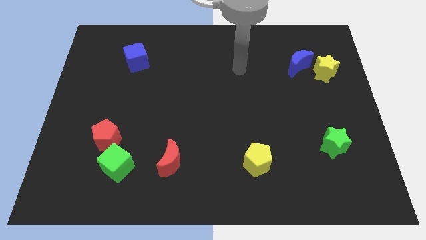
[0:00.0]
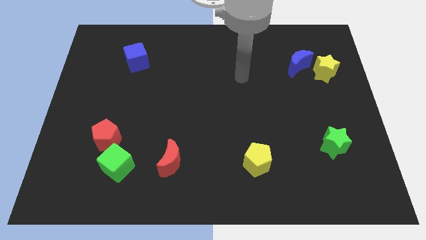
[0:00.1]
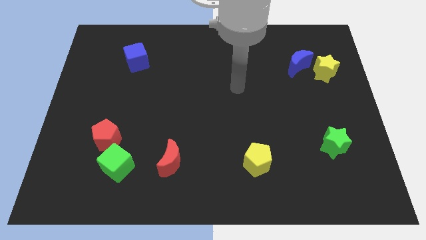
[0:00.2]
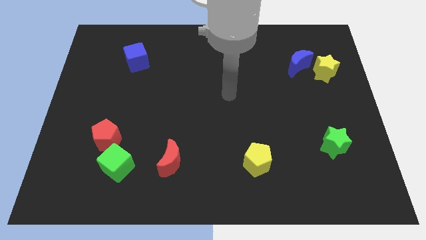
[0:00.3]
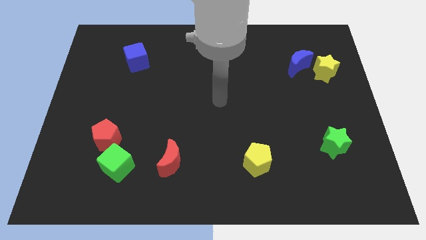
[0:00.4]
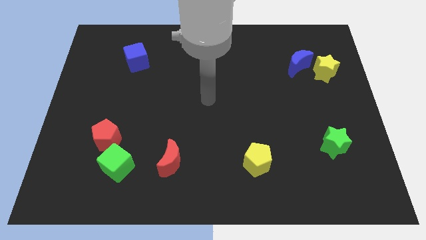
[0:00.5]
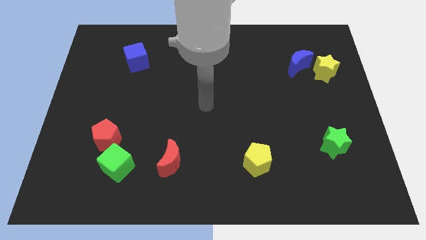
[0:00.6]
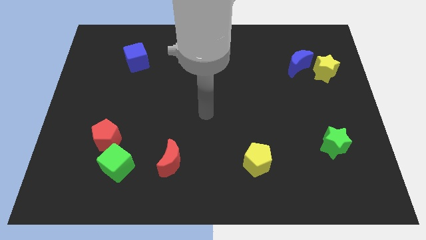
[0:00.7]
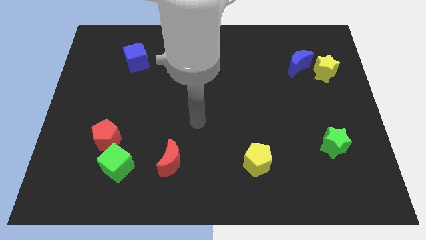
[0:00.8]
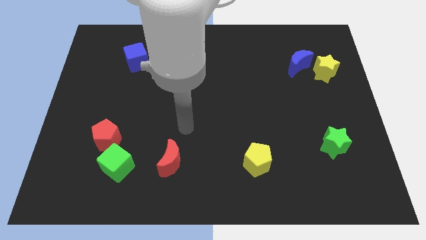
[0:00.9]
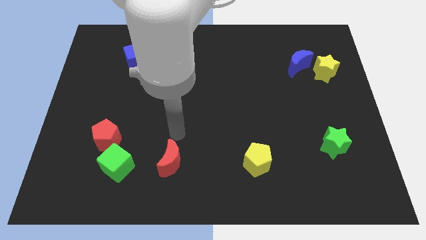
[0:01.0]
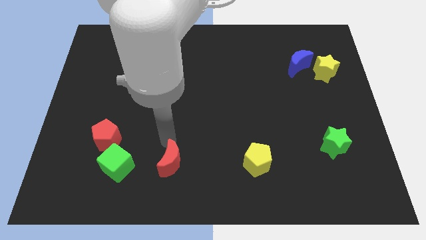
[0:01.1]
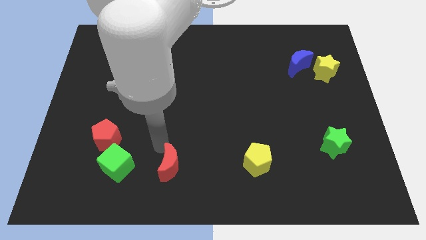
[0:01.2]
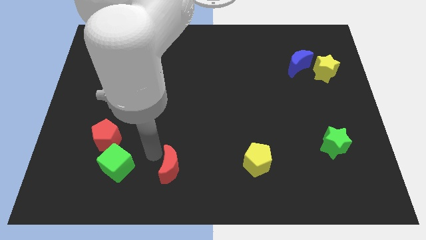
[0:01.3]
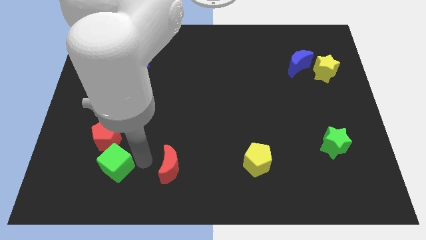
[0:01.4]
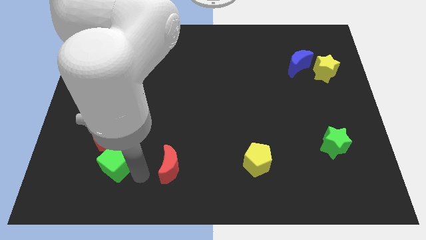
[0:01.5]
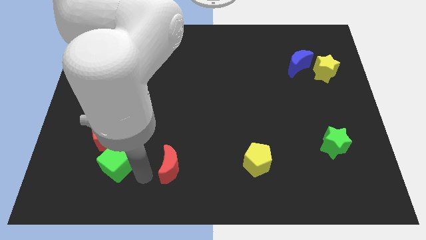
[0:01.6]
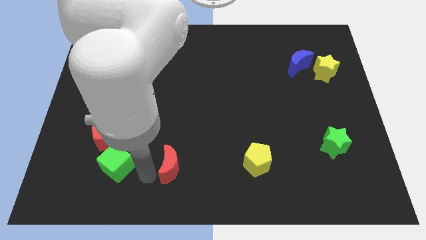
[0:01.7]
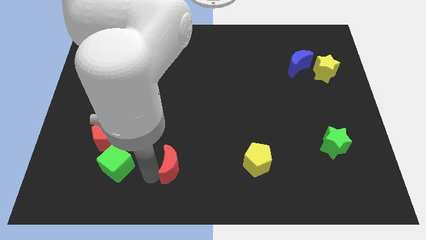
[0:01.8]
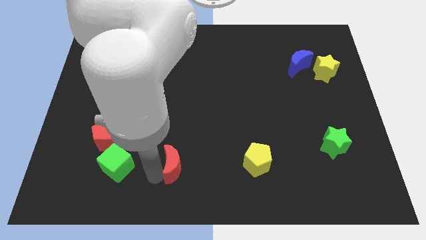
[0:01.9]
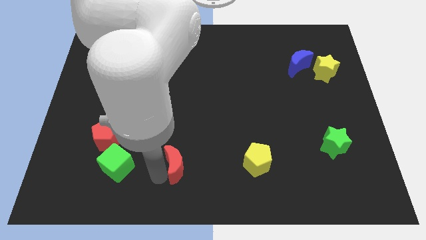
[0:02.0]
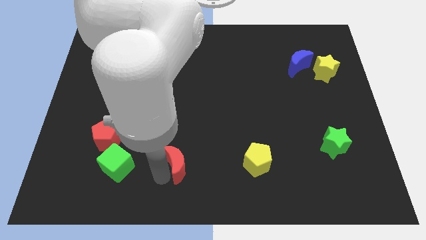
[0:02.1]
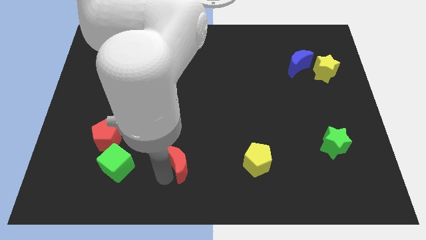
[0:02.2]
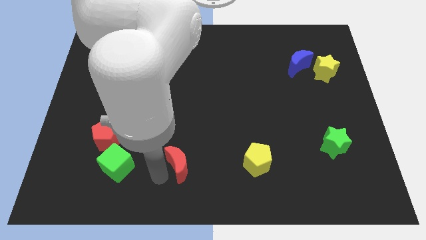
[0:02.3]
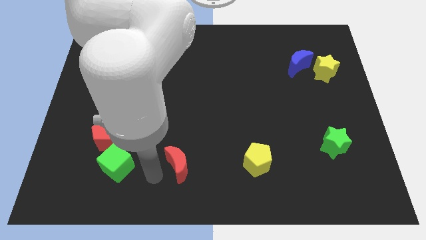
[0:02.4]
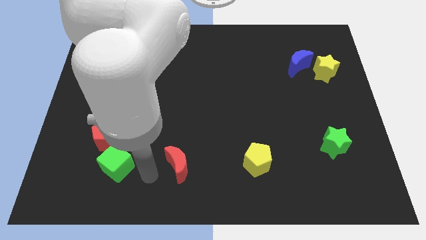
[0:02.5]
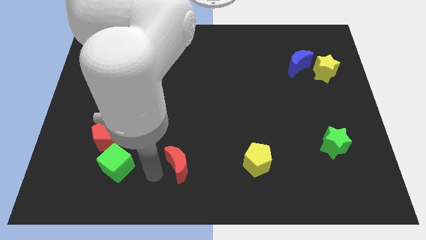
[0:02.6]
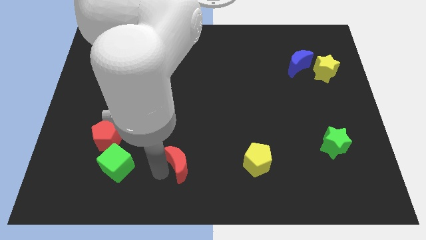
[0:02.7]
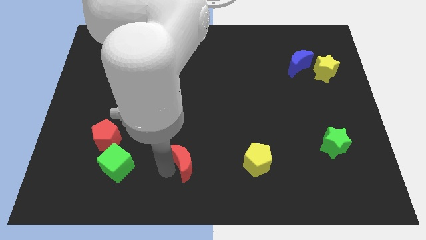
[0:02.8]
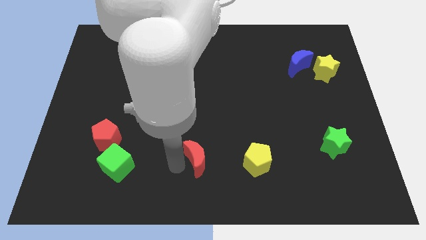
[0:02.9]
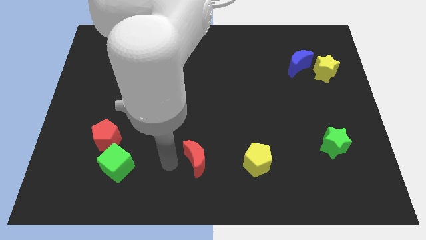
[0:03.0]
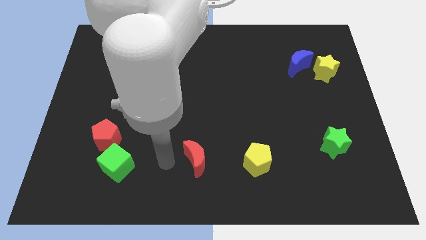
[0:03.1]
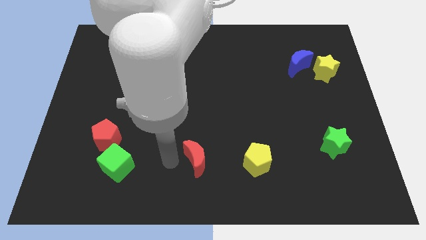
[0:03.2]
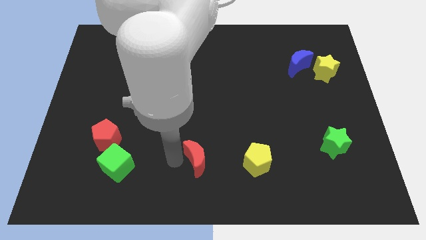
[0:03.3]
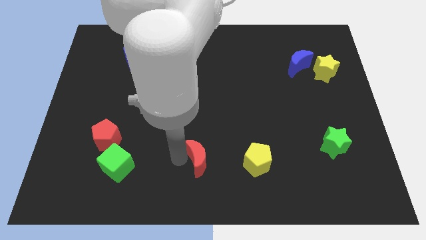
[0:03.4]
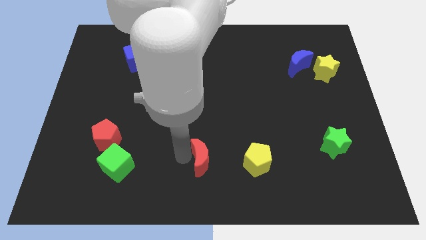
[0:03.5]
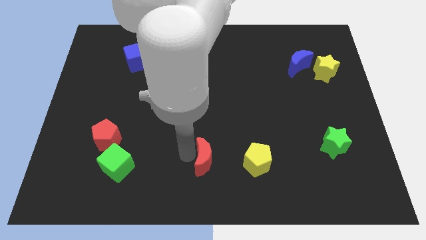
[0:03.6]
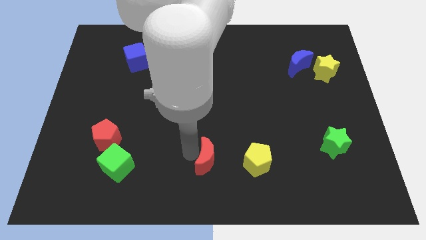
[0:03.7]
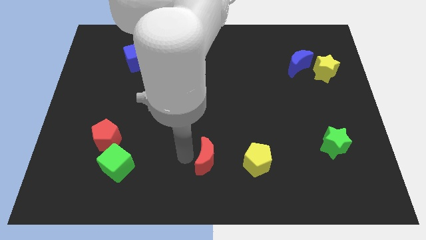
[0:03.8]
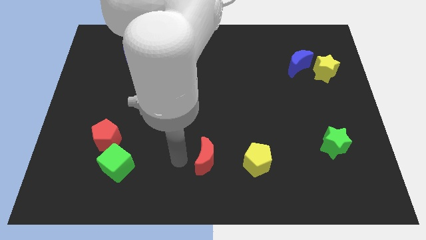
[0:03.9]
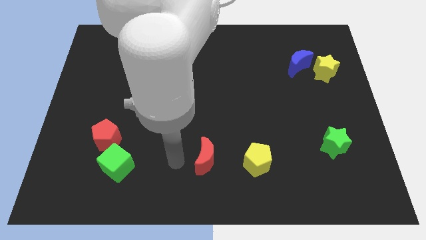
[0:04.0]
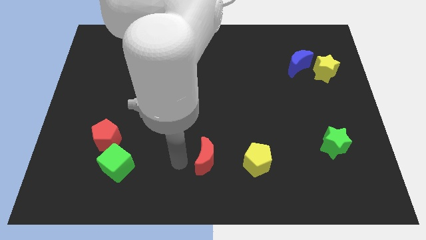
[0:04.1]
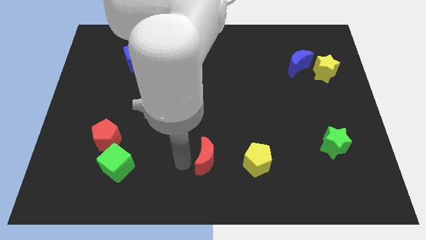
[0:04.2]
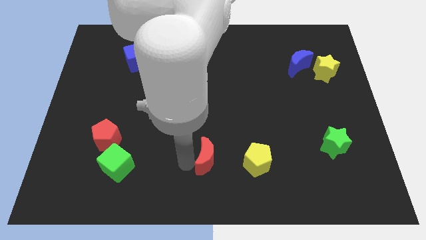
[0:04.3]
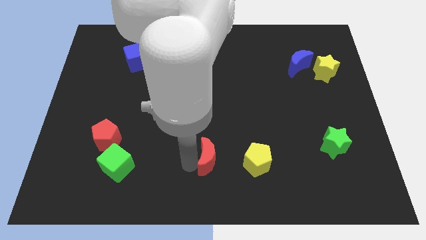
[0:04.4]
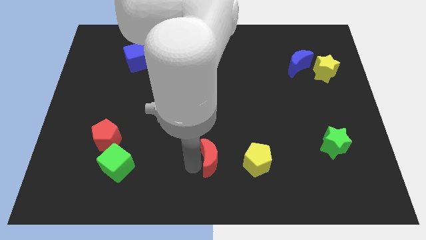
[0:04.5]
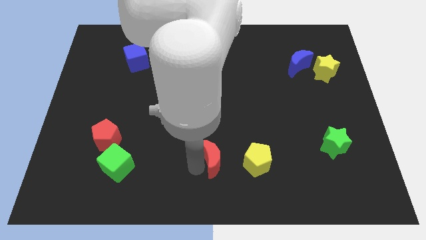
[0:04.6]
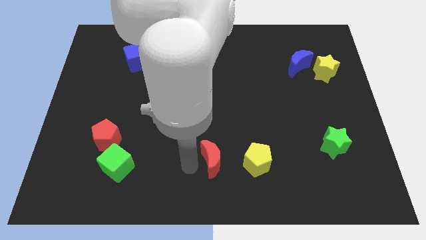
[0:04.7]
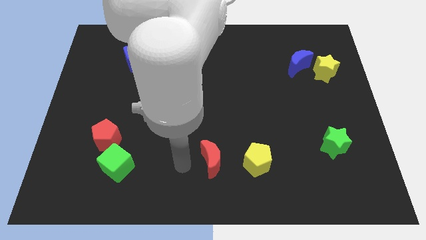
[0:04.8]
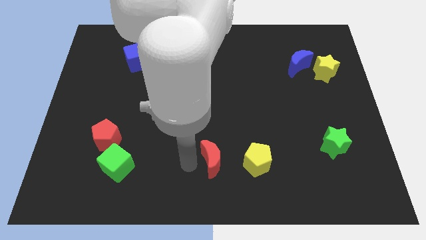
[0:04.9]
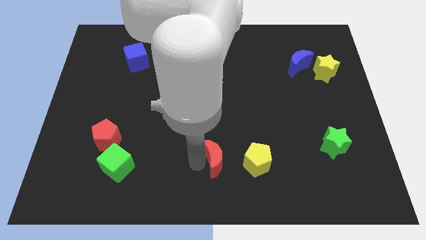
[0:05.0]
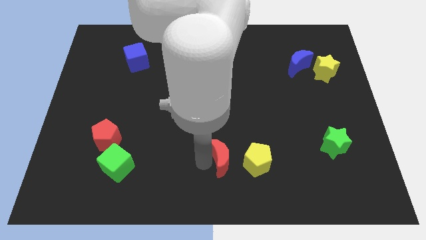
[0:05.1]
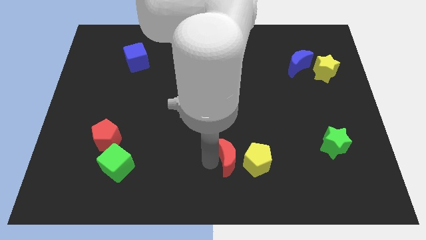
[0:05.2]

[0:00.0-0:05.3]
put the red moon next to the yellow pentagon

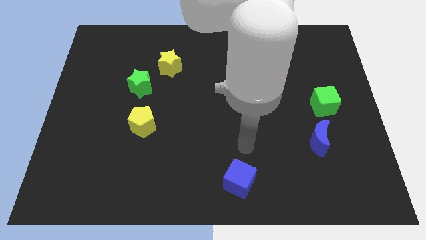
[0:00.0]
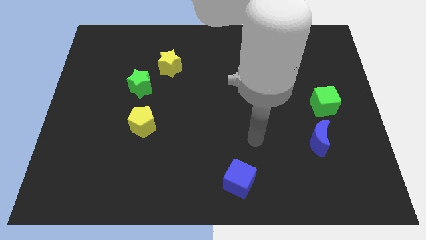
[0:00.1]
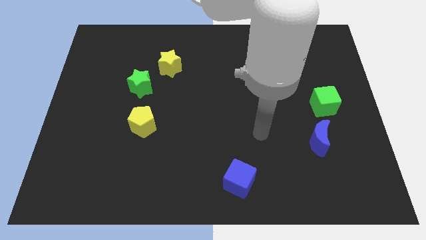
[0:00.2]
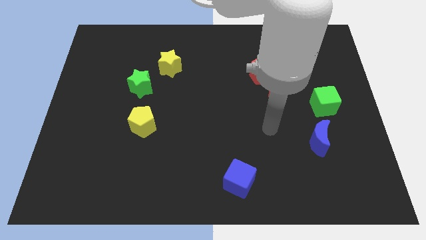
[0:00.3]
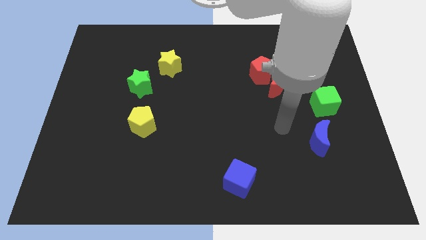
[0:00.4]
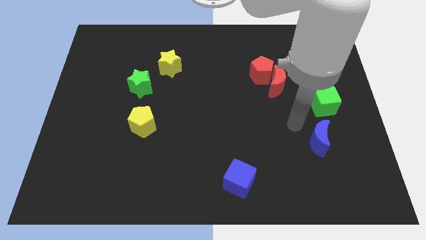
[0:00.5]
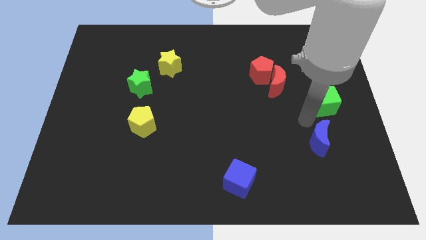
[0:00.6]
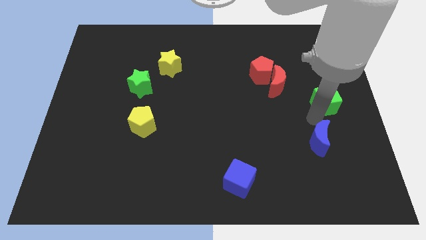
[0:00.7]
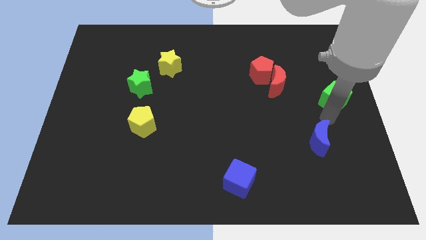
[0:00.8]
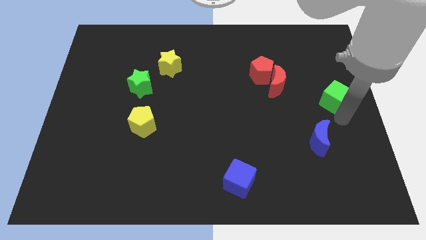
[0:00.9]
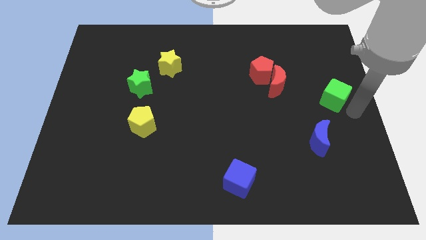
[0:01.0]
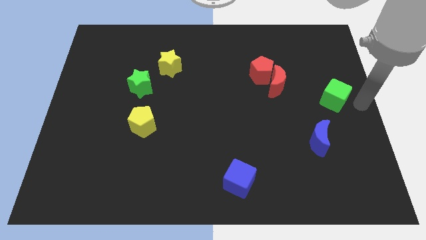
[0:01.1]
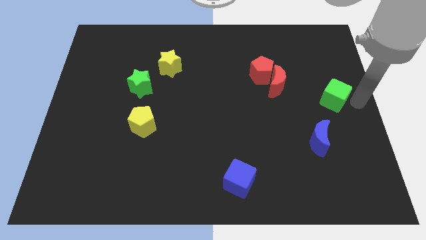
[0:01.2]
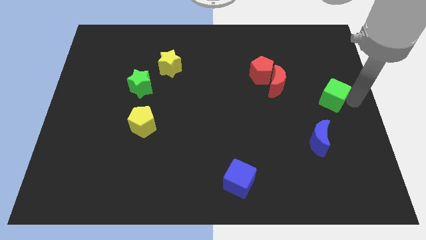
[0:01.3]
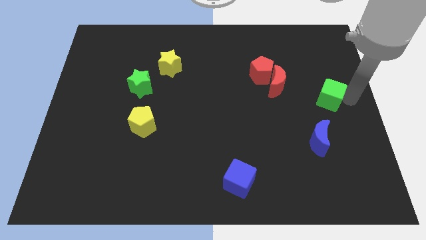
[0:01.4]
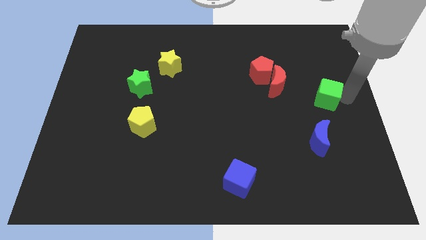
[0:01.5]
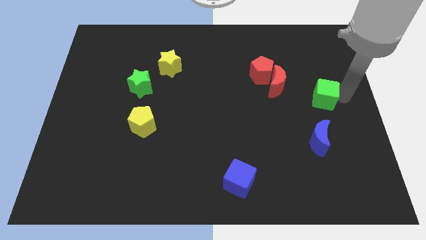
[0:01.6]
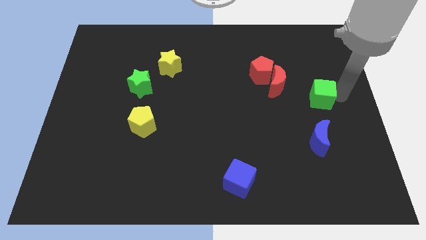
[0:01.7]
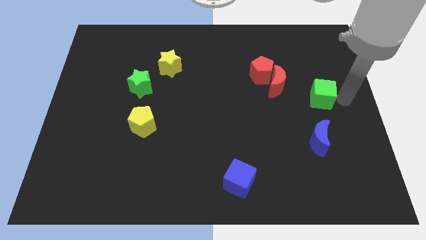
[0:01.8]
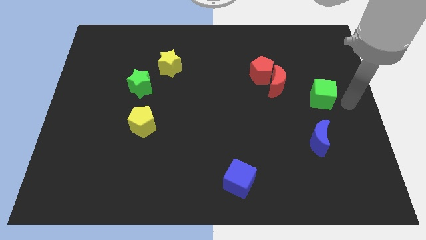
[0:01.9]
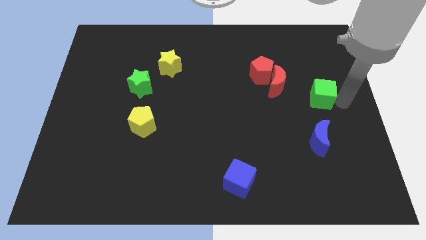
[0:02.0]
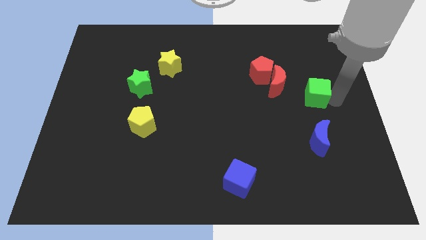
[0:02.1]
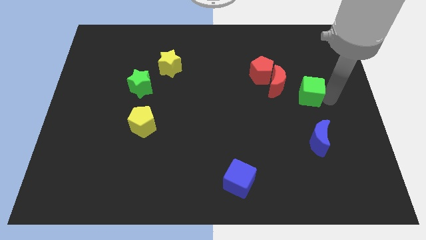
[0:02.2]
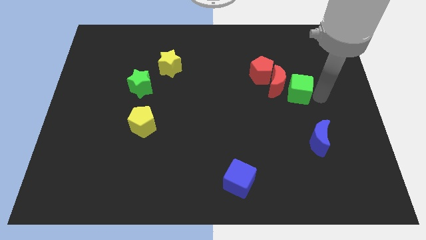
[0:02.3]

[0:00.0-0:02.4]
move the green cube towards the red moon

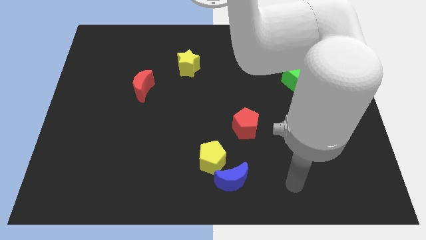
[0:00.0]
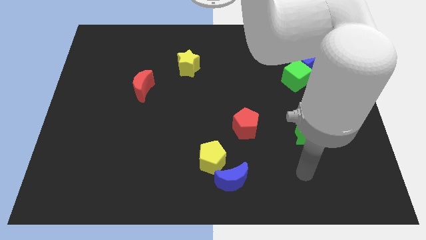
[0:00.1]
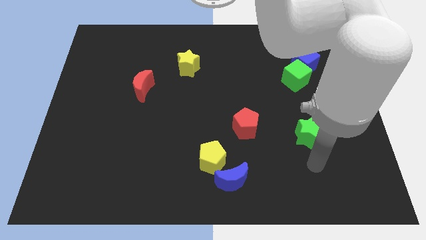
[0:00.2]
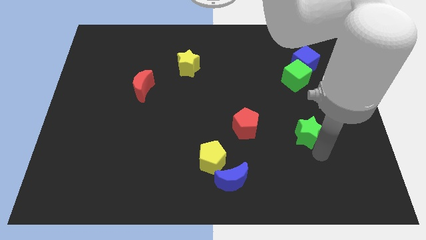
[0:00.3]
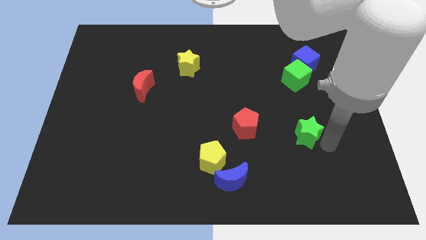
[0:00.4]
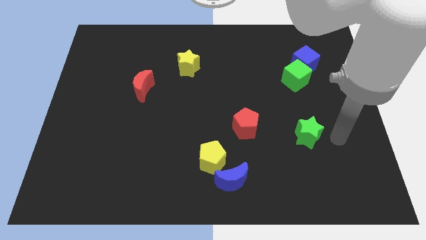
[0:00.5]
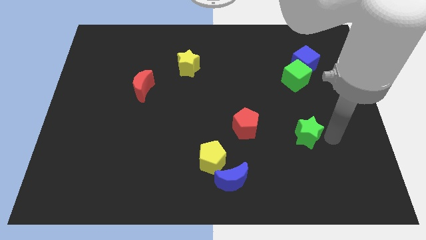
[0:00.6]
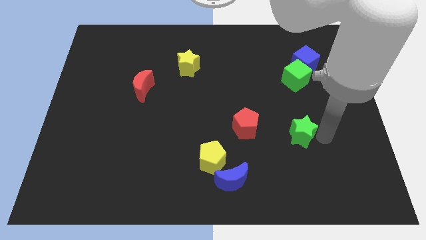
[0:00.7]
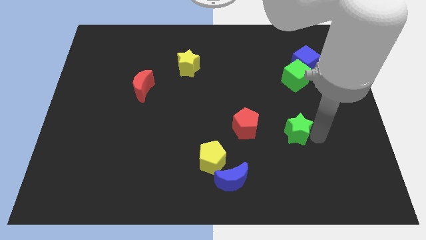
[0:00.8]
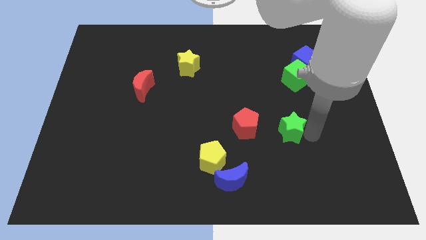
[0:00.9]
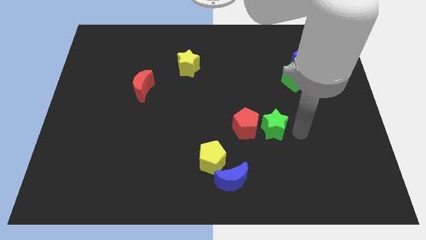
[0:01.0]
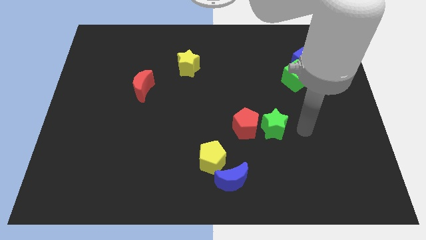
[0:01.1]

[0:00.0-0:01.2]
slide the green star to the red pentagon
